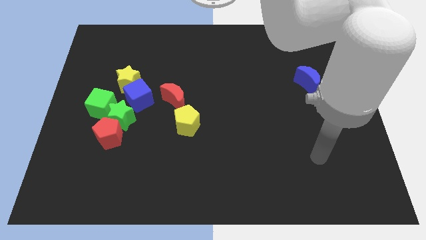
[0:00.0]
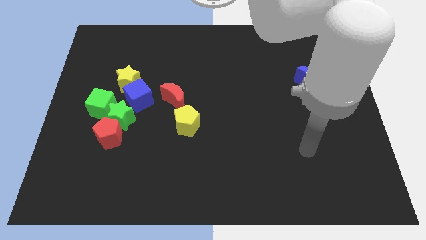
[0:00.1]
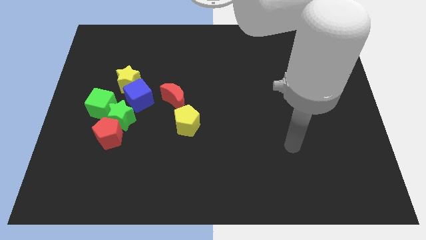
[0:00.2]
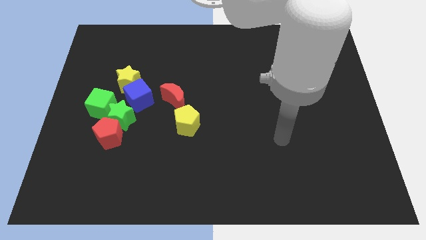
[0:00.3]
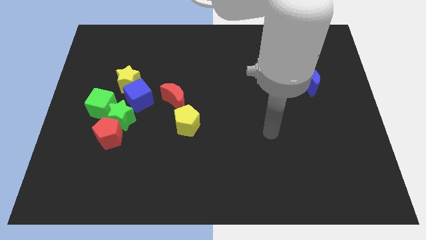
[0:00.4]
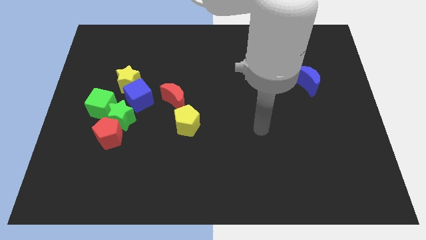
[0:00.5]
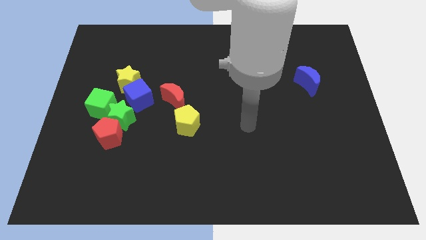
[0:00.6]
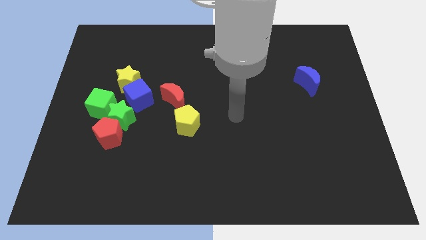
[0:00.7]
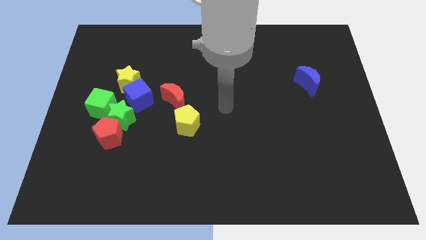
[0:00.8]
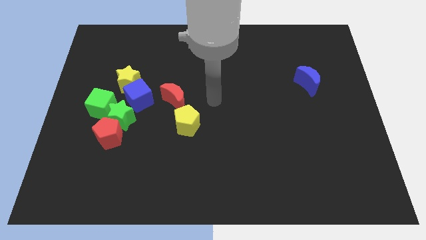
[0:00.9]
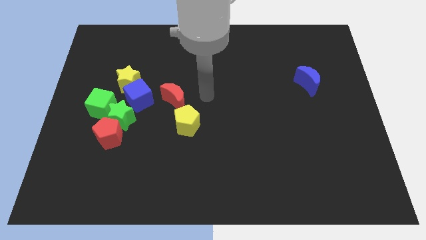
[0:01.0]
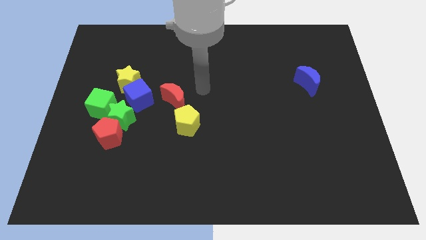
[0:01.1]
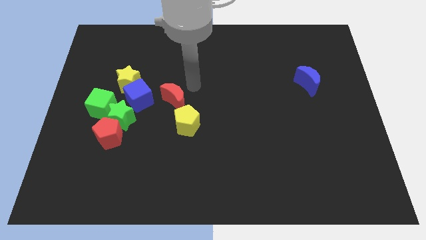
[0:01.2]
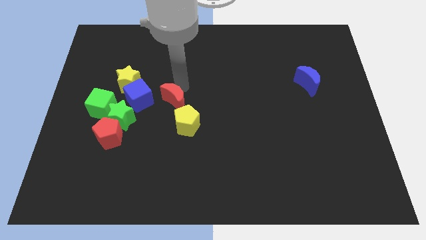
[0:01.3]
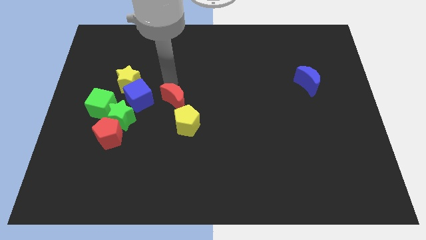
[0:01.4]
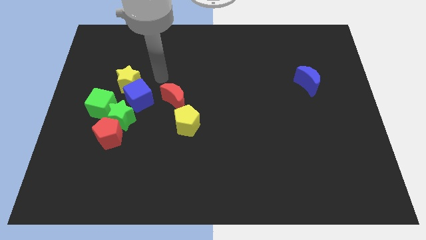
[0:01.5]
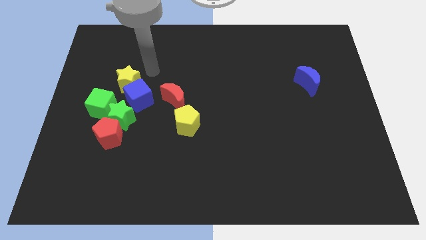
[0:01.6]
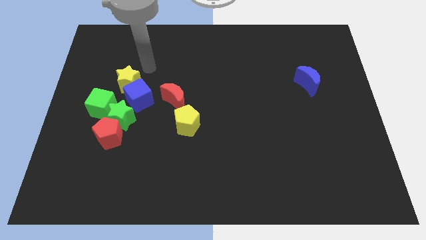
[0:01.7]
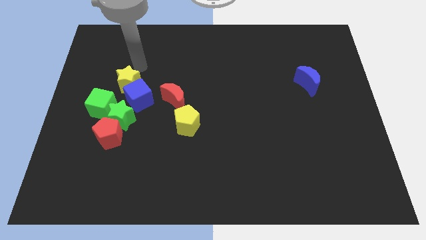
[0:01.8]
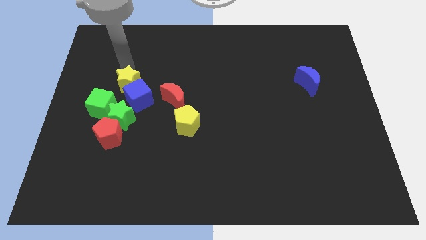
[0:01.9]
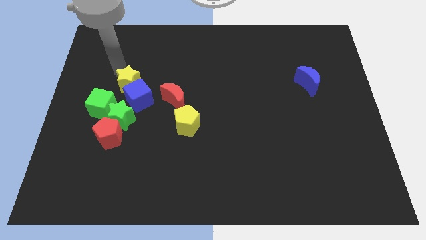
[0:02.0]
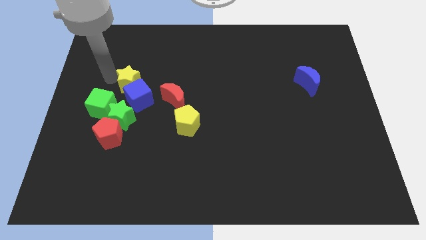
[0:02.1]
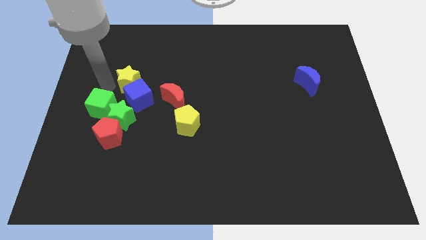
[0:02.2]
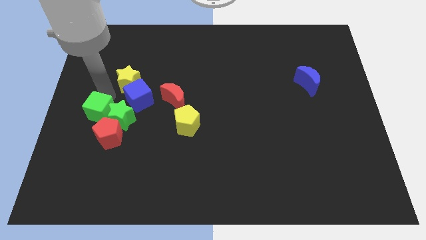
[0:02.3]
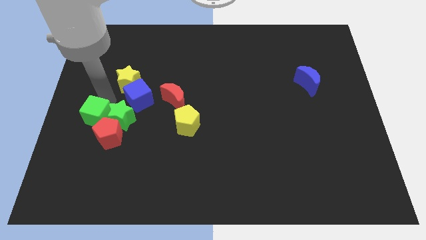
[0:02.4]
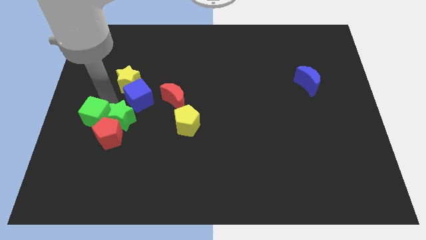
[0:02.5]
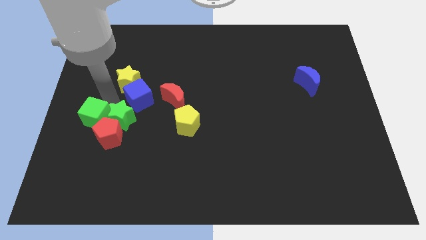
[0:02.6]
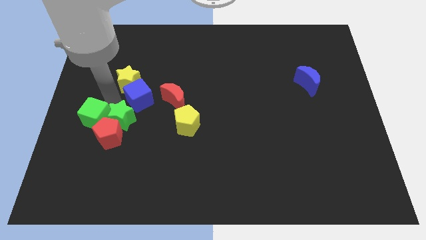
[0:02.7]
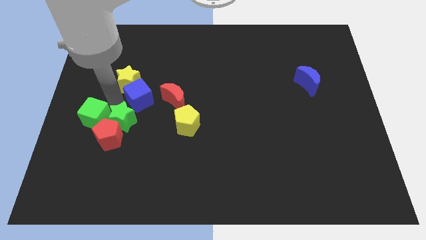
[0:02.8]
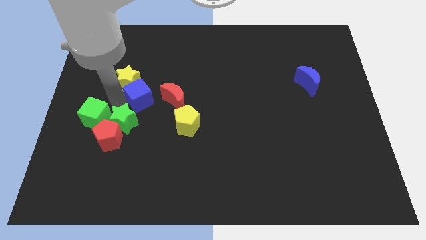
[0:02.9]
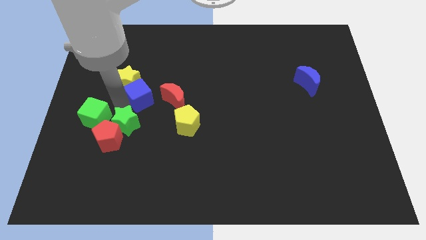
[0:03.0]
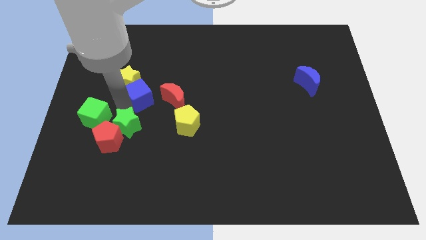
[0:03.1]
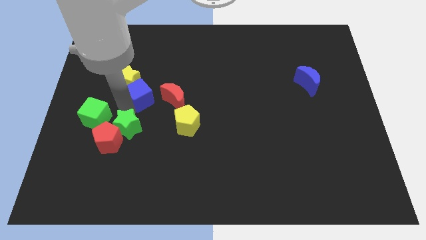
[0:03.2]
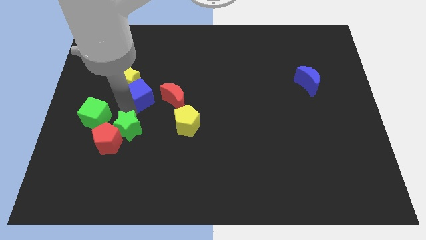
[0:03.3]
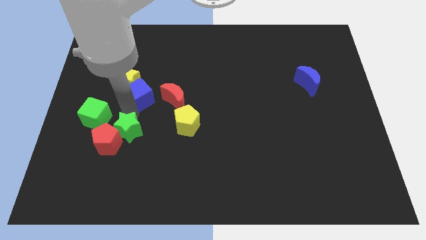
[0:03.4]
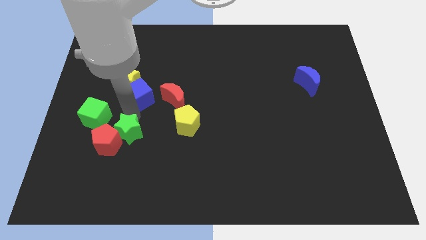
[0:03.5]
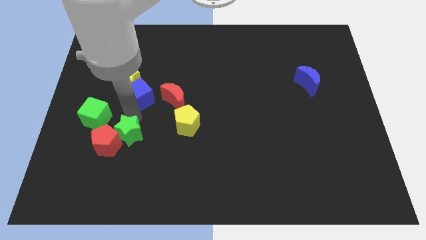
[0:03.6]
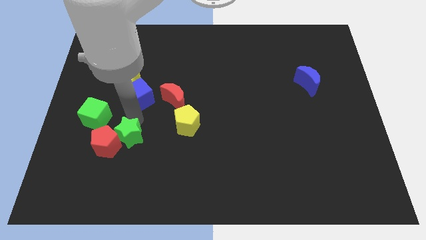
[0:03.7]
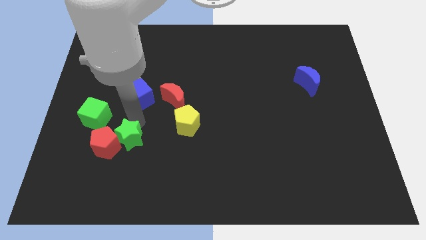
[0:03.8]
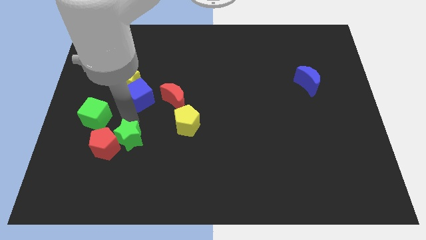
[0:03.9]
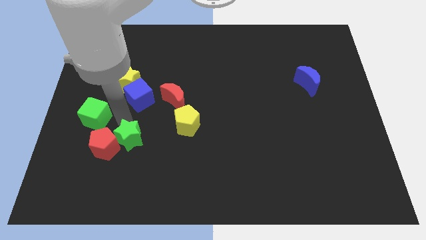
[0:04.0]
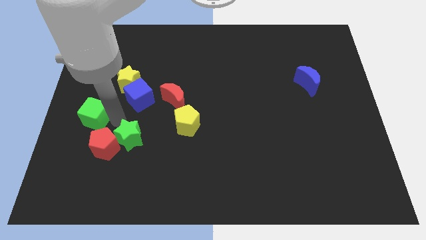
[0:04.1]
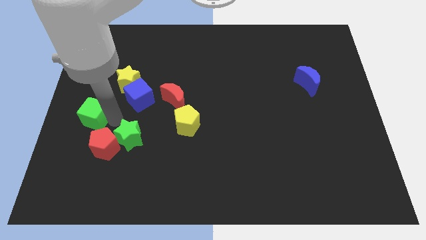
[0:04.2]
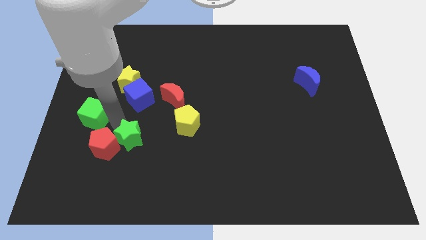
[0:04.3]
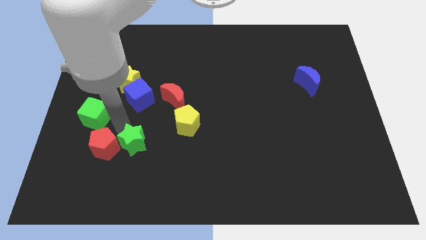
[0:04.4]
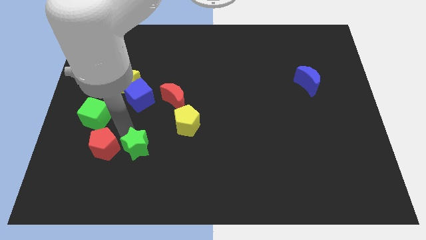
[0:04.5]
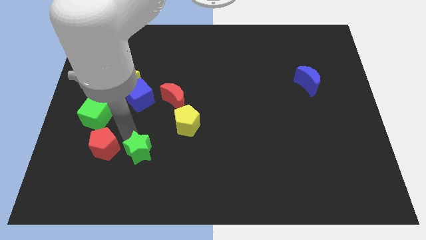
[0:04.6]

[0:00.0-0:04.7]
move the green star away from the red pentagon, green cube, and blue cube

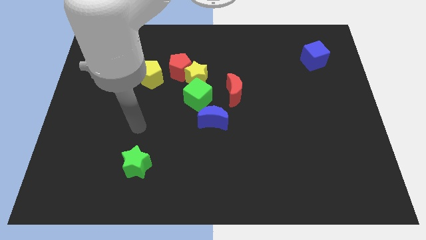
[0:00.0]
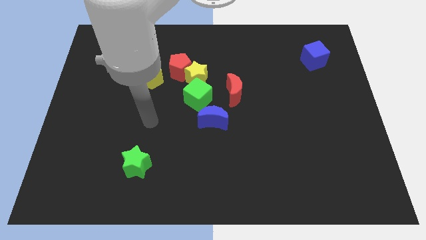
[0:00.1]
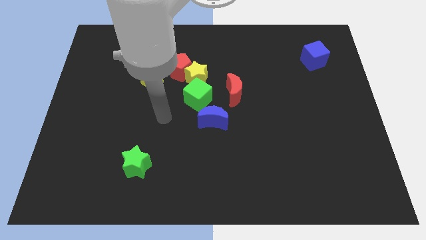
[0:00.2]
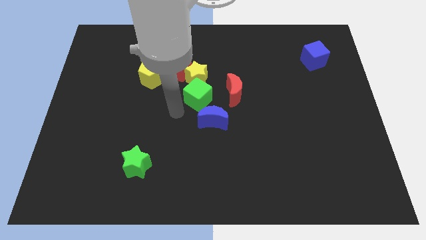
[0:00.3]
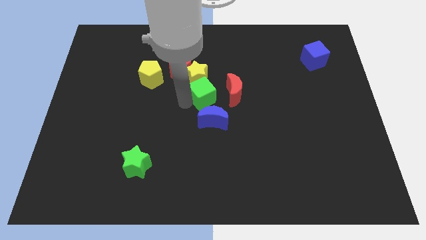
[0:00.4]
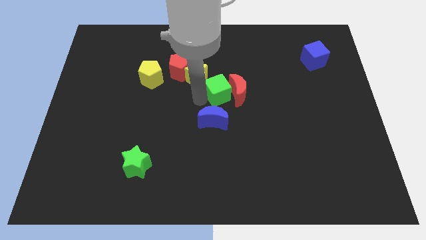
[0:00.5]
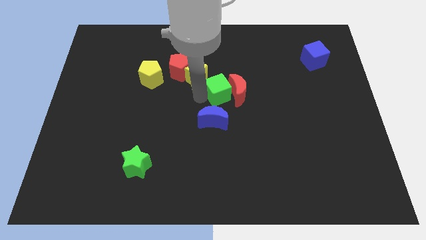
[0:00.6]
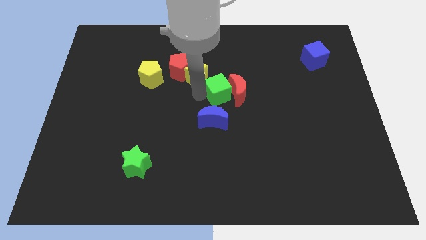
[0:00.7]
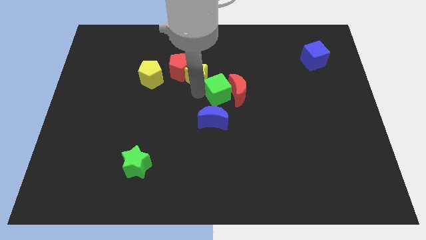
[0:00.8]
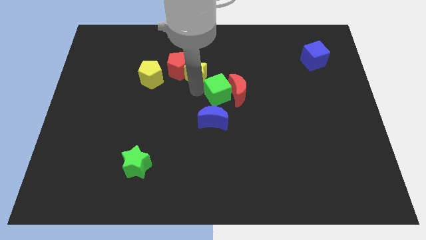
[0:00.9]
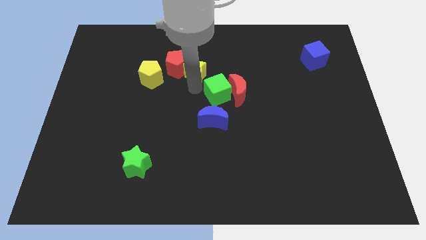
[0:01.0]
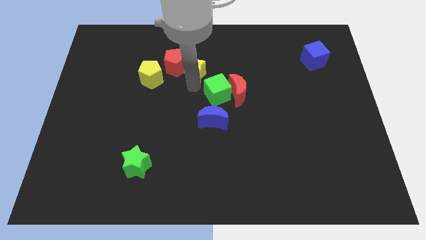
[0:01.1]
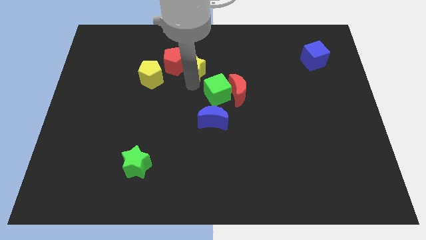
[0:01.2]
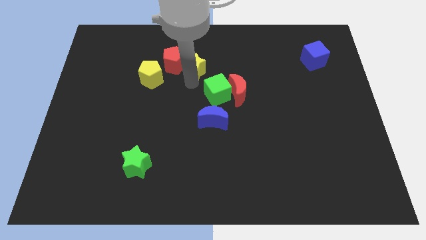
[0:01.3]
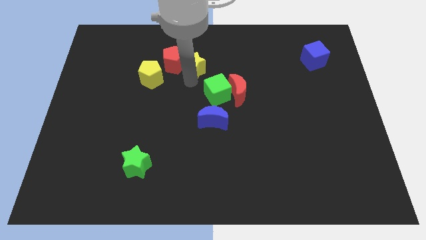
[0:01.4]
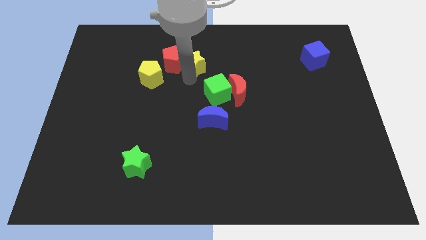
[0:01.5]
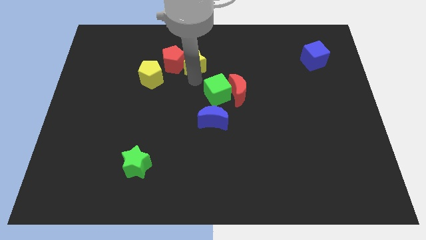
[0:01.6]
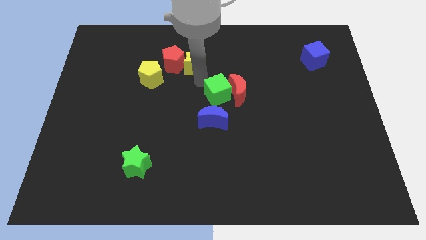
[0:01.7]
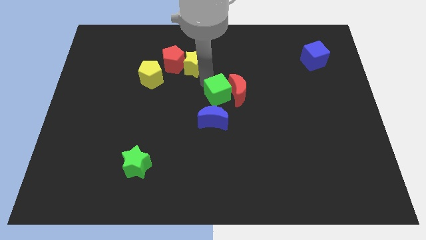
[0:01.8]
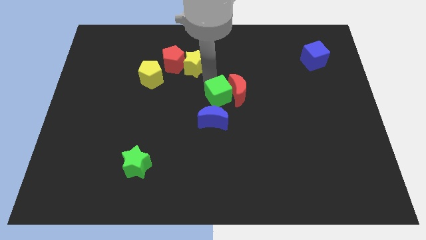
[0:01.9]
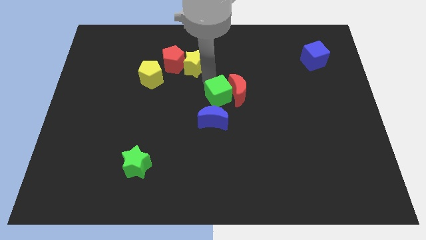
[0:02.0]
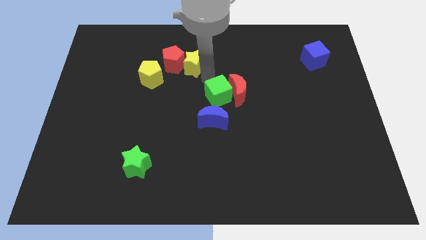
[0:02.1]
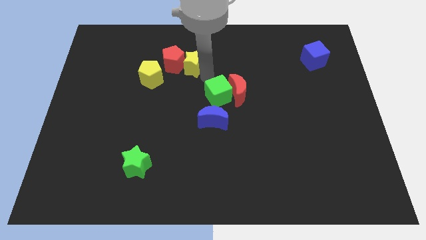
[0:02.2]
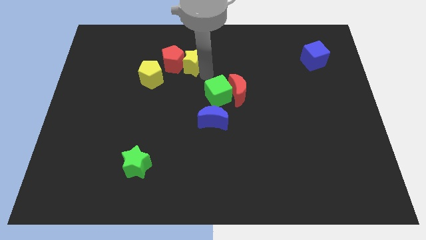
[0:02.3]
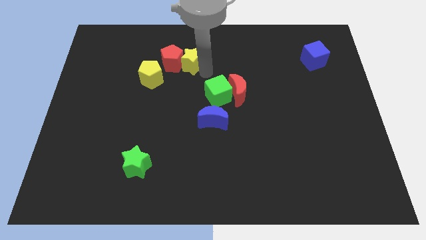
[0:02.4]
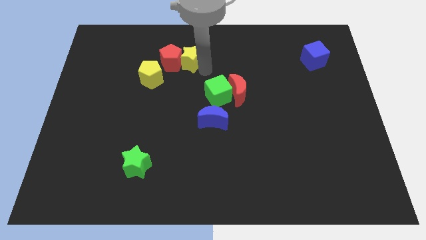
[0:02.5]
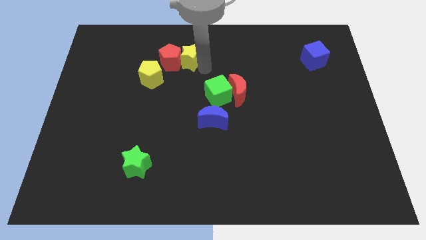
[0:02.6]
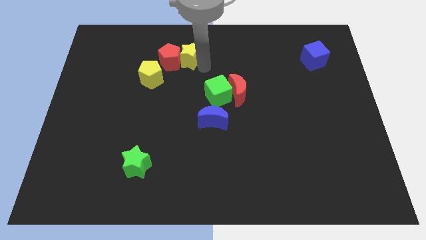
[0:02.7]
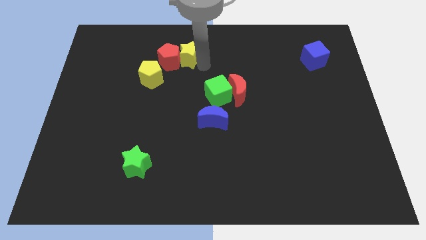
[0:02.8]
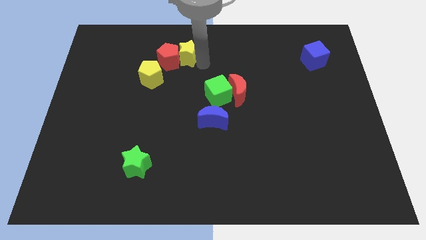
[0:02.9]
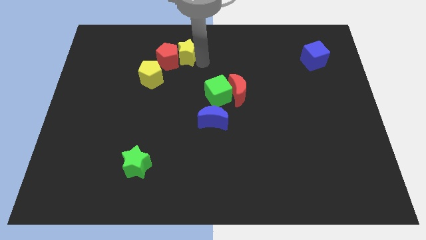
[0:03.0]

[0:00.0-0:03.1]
pull the yellow star apart from the group

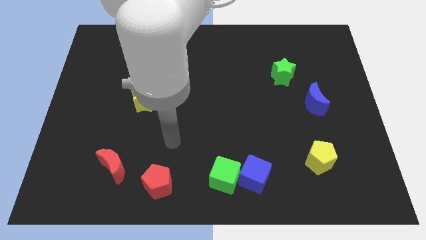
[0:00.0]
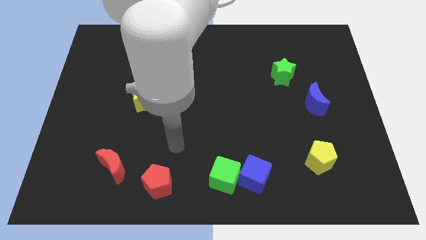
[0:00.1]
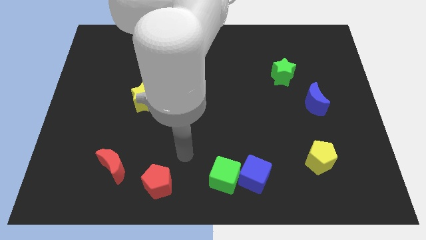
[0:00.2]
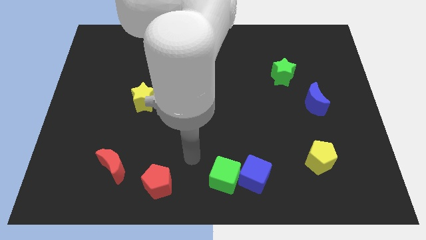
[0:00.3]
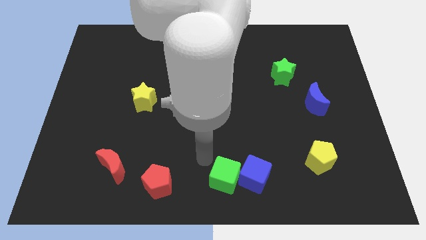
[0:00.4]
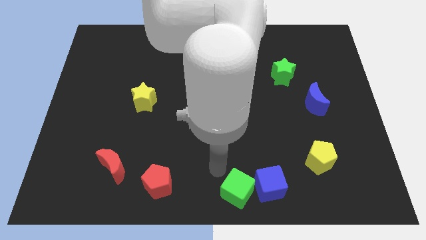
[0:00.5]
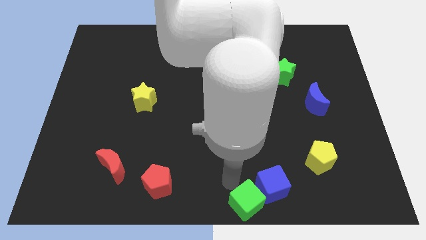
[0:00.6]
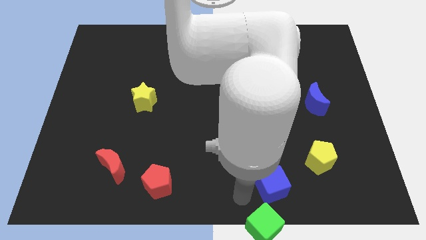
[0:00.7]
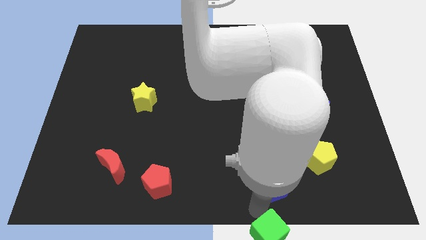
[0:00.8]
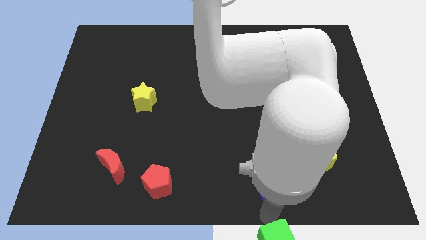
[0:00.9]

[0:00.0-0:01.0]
move the blue cube away from the green cube

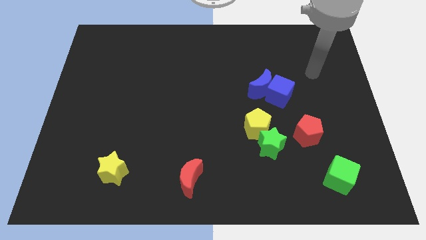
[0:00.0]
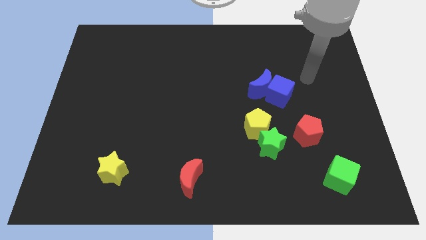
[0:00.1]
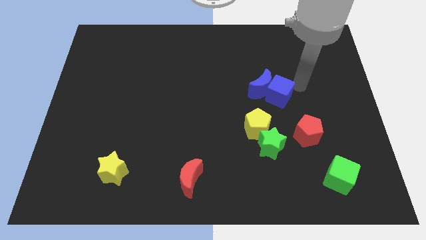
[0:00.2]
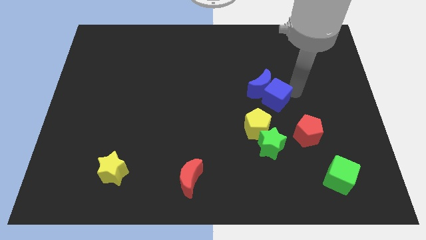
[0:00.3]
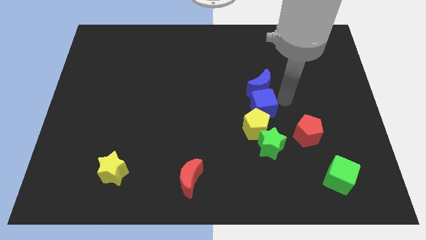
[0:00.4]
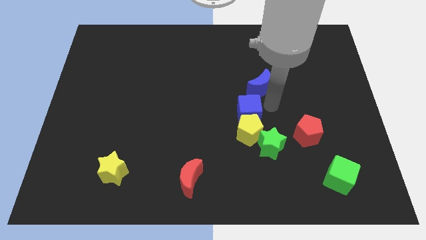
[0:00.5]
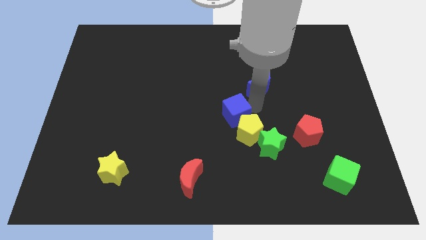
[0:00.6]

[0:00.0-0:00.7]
pull the blue moon apart from the blue cube
